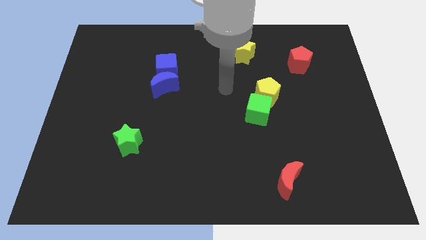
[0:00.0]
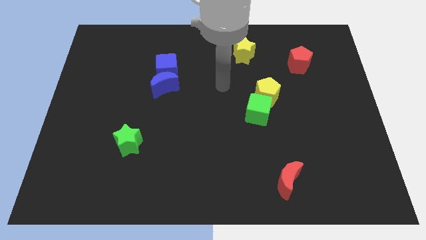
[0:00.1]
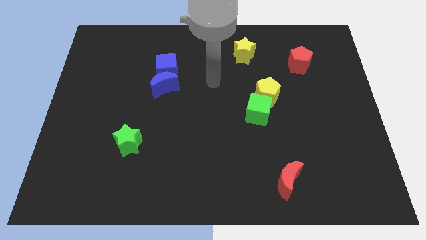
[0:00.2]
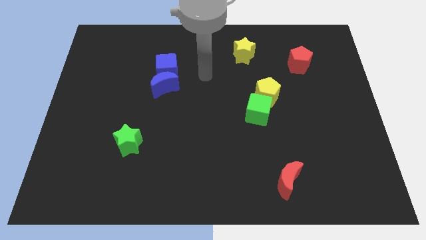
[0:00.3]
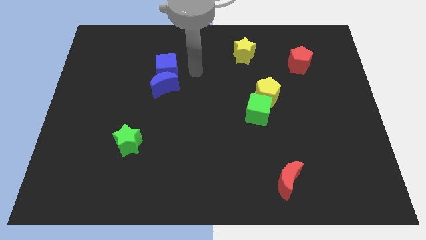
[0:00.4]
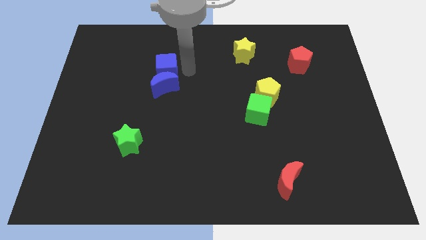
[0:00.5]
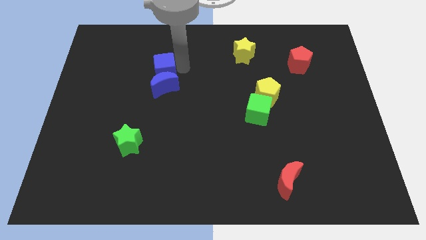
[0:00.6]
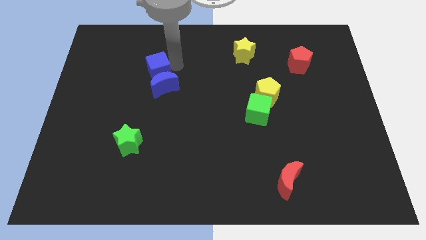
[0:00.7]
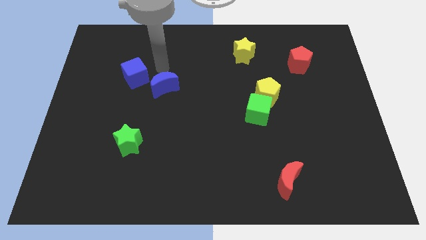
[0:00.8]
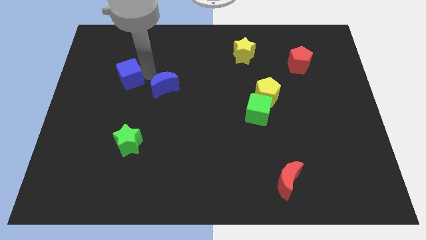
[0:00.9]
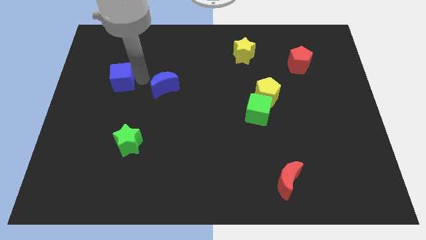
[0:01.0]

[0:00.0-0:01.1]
pull the blue moon apart from the blue cube

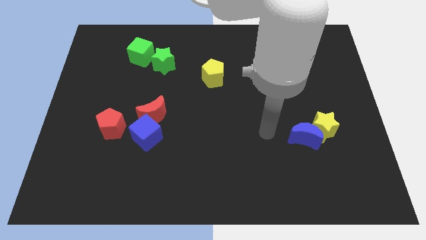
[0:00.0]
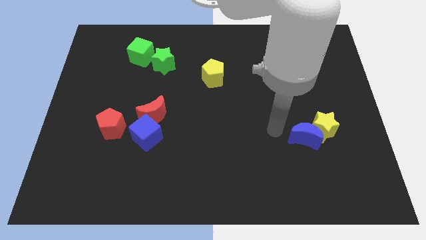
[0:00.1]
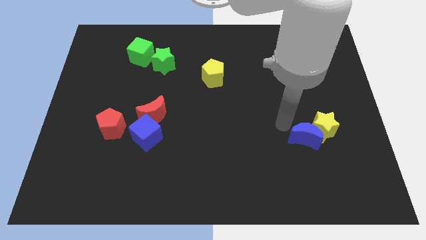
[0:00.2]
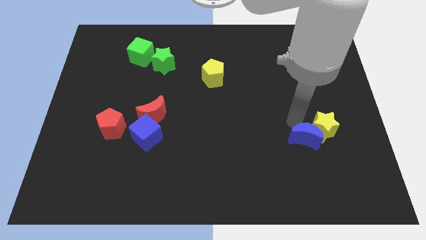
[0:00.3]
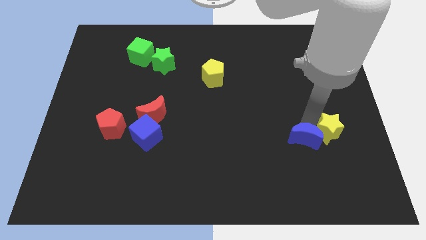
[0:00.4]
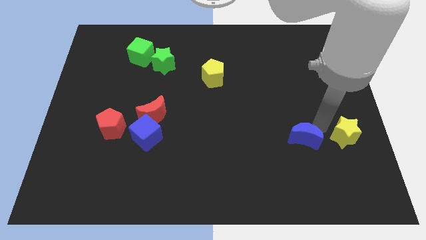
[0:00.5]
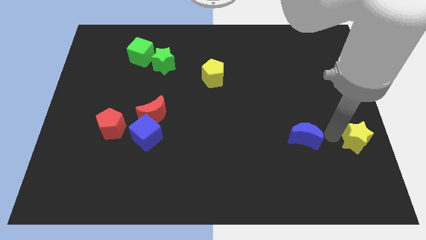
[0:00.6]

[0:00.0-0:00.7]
move the blue moon away from the yellow star

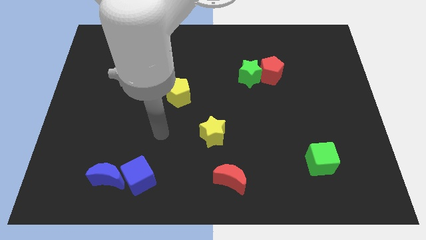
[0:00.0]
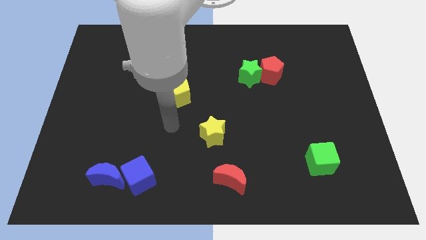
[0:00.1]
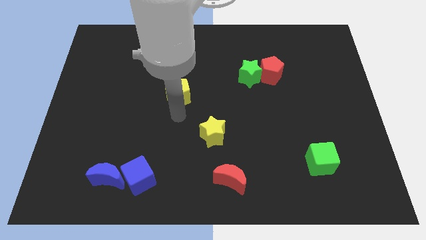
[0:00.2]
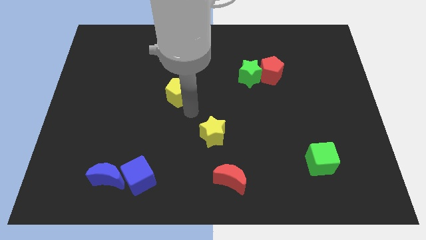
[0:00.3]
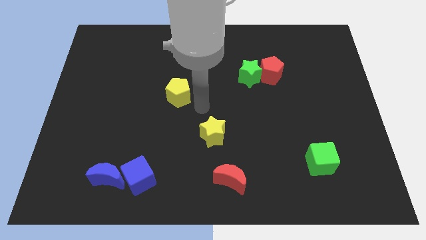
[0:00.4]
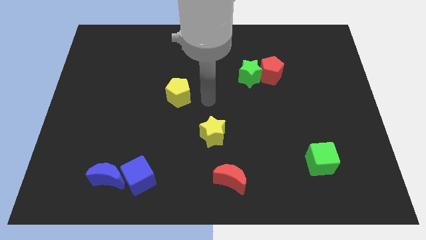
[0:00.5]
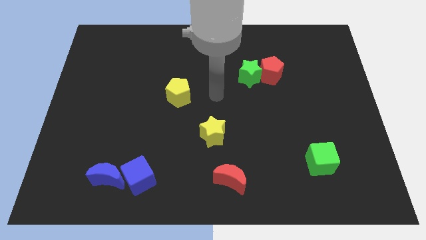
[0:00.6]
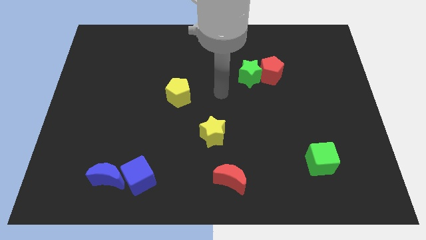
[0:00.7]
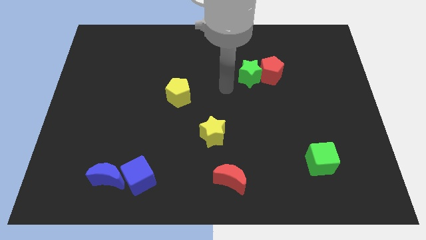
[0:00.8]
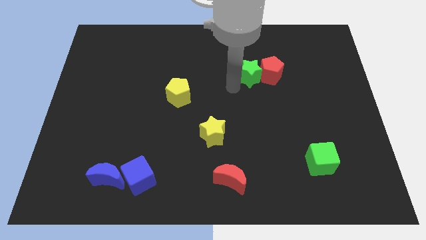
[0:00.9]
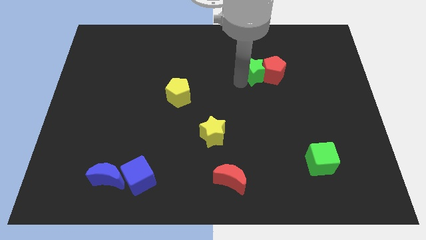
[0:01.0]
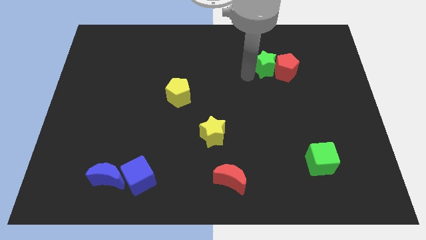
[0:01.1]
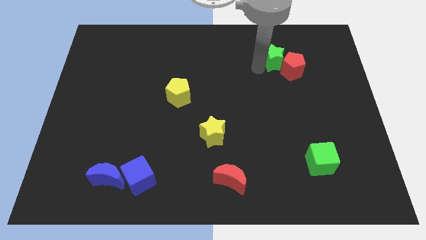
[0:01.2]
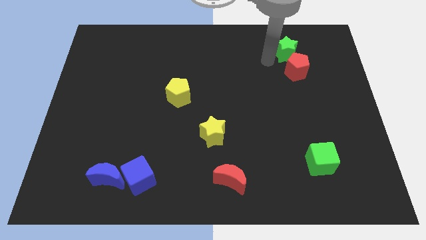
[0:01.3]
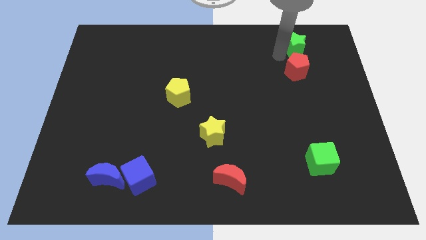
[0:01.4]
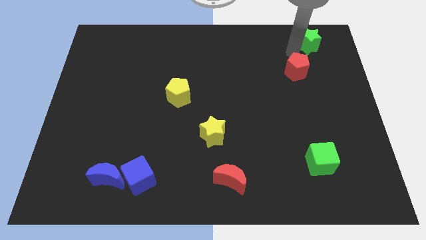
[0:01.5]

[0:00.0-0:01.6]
move the red pentagon away from the green star

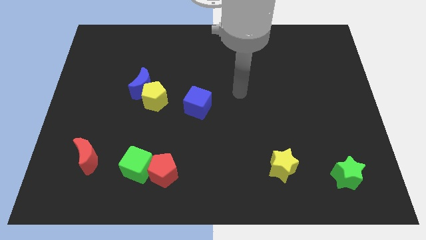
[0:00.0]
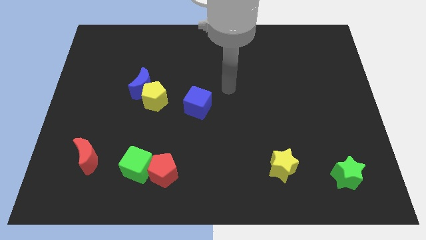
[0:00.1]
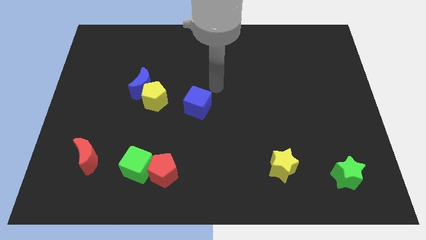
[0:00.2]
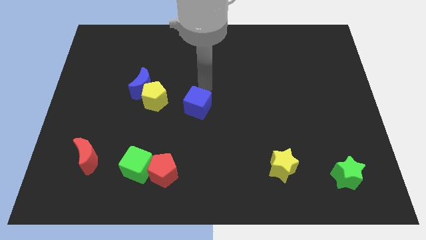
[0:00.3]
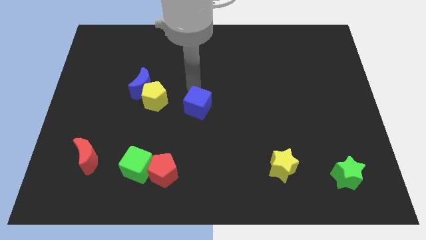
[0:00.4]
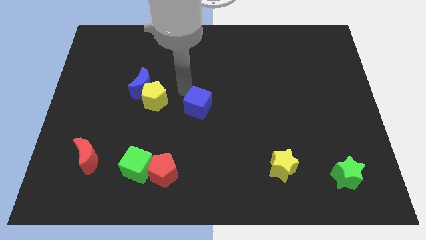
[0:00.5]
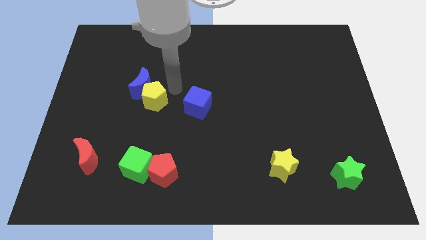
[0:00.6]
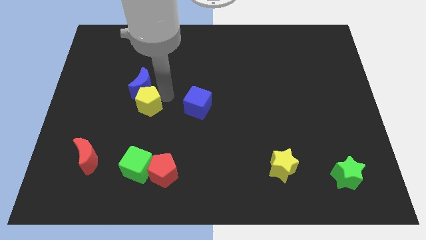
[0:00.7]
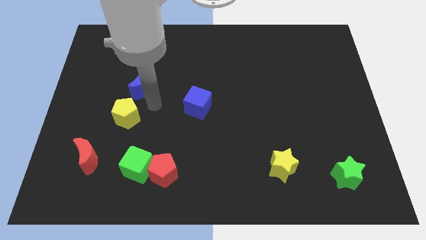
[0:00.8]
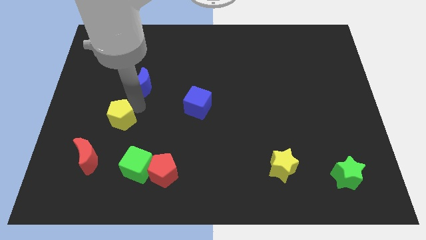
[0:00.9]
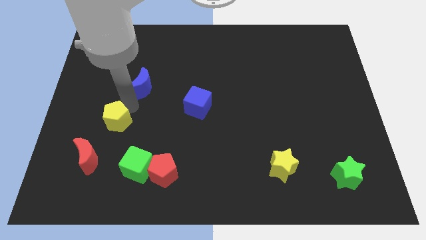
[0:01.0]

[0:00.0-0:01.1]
separate the blue moon from the yellow pentagon

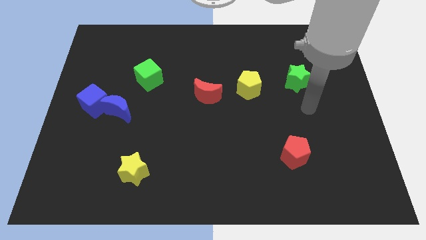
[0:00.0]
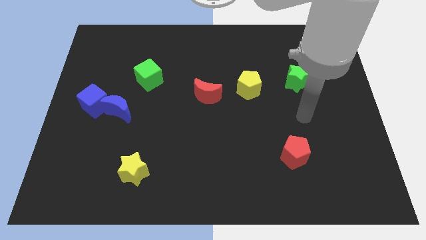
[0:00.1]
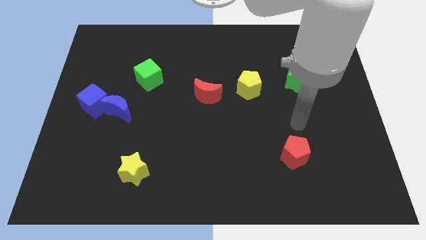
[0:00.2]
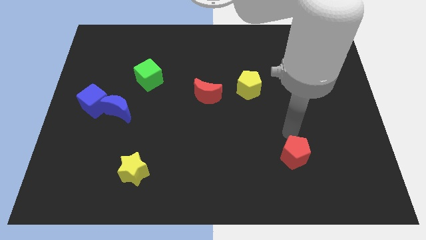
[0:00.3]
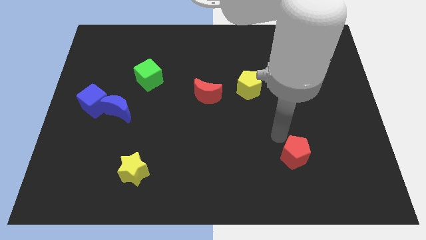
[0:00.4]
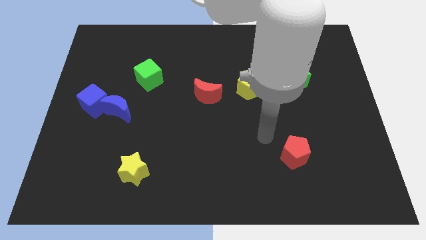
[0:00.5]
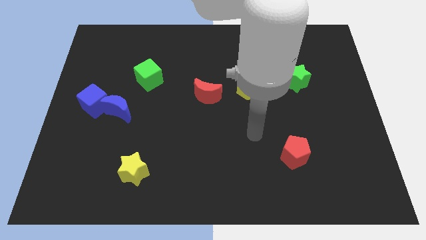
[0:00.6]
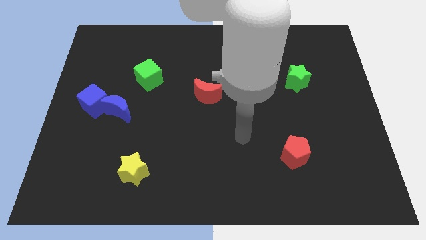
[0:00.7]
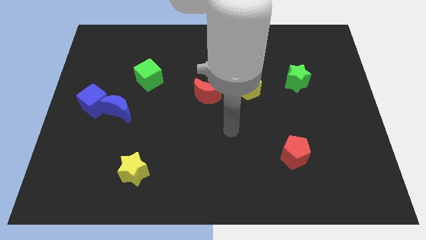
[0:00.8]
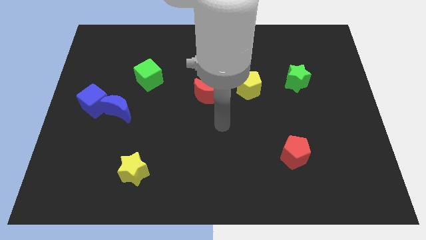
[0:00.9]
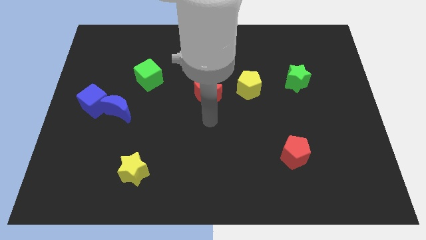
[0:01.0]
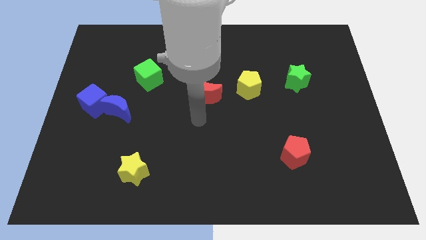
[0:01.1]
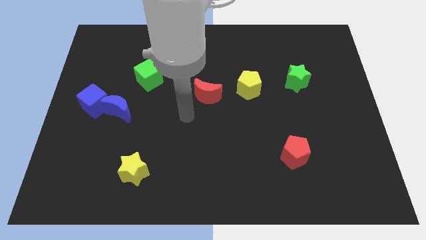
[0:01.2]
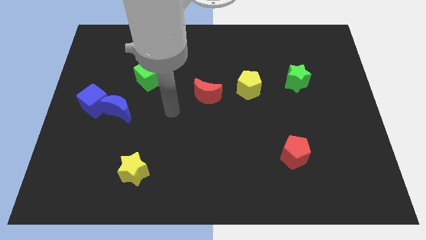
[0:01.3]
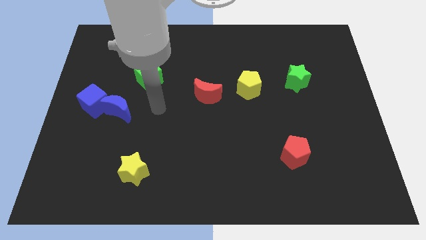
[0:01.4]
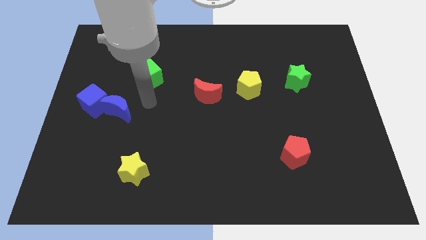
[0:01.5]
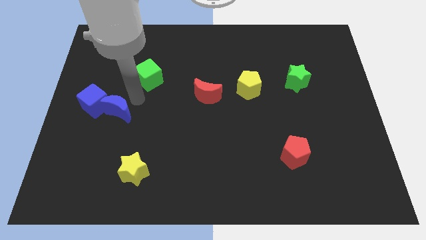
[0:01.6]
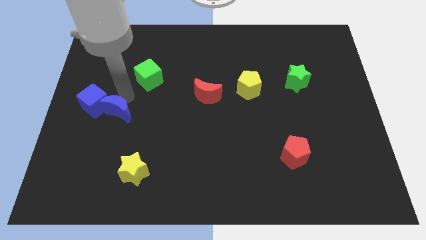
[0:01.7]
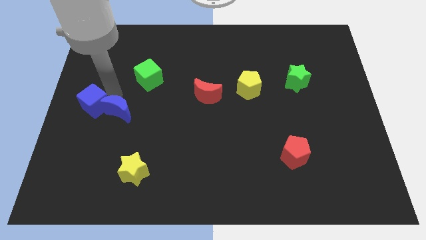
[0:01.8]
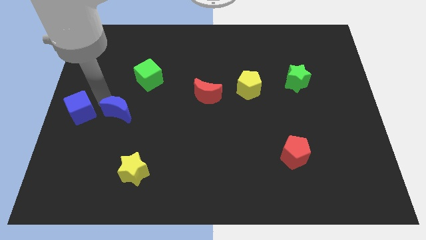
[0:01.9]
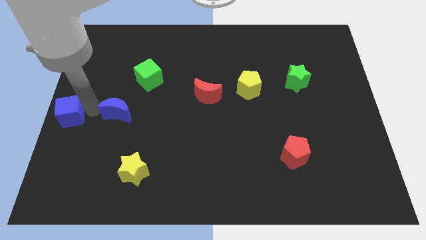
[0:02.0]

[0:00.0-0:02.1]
move the blue moon away from the blue cube

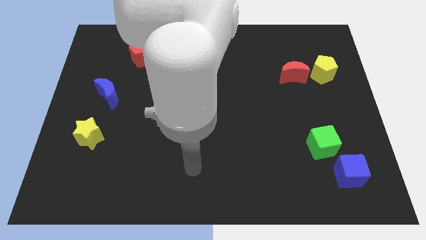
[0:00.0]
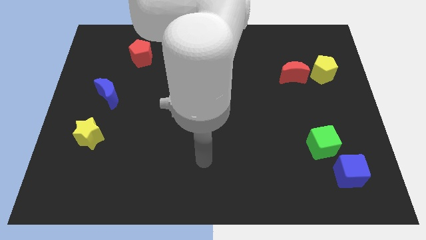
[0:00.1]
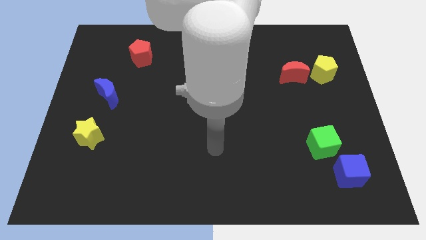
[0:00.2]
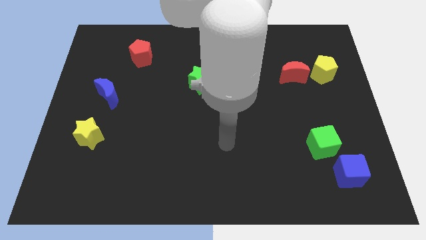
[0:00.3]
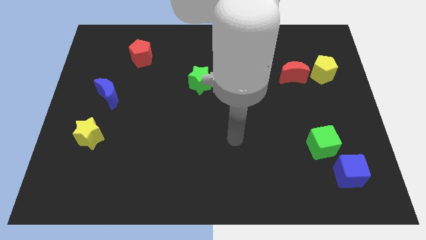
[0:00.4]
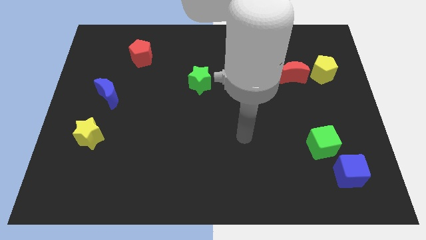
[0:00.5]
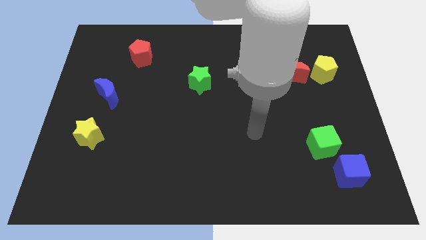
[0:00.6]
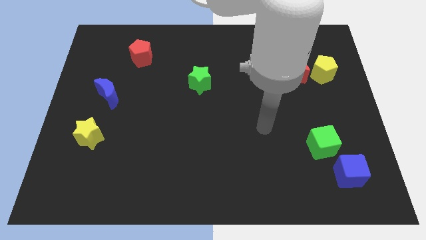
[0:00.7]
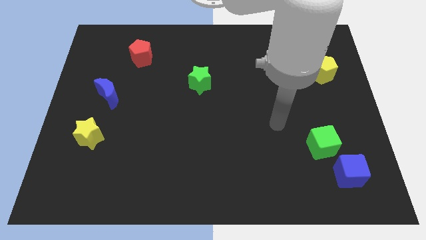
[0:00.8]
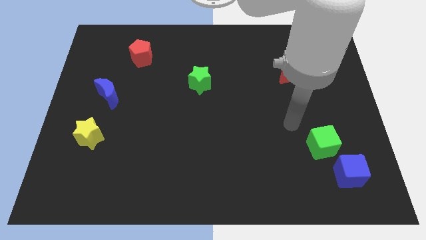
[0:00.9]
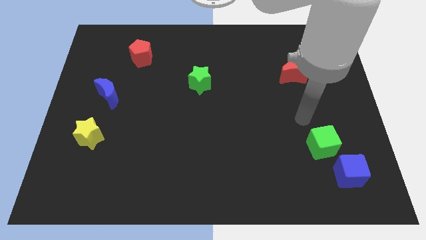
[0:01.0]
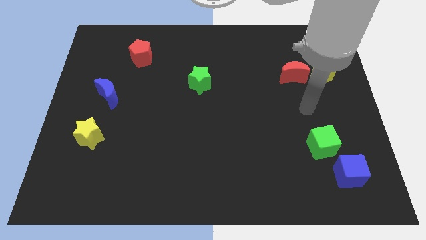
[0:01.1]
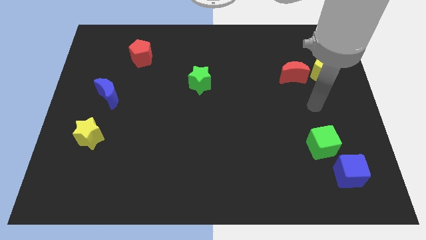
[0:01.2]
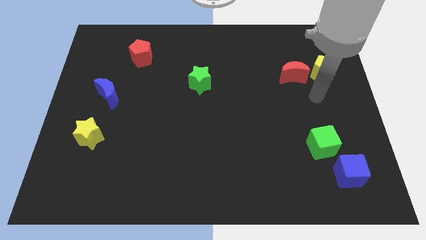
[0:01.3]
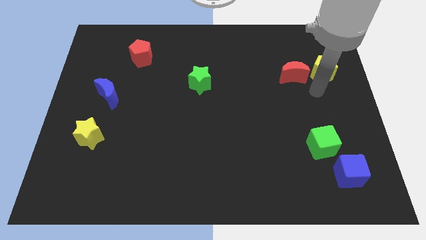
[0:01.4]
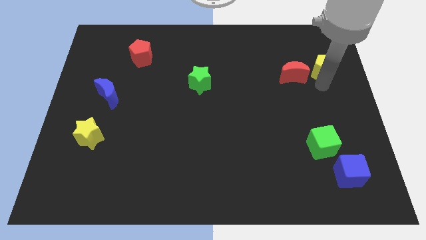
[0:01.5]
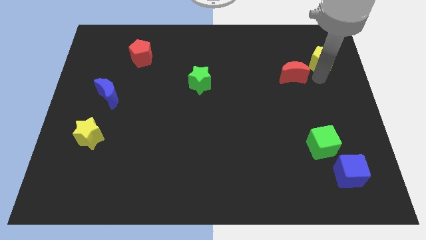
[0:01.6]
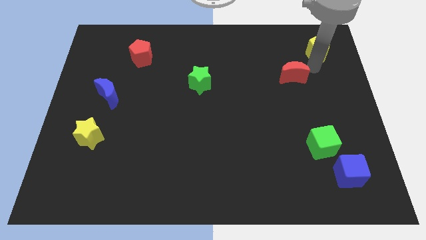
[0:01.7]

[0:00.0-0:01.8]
pull the red moon apart from the yellow pentagon

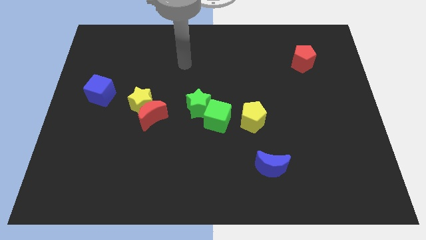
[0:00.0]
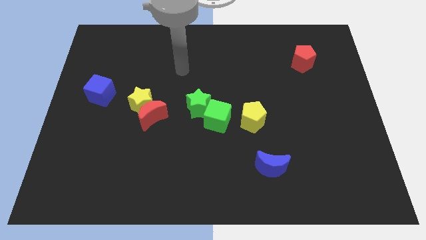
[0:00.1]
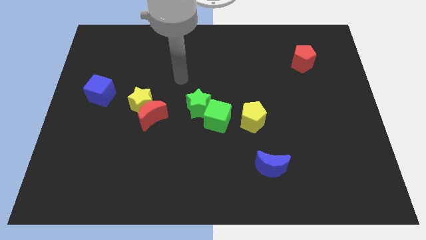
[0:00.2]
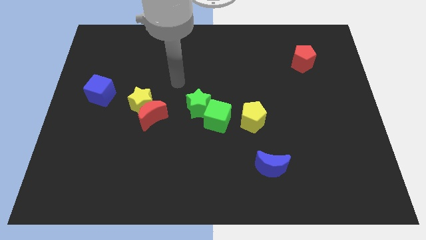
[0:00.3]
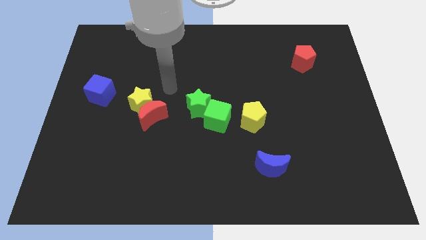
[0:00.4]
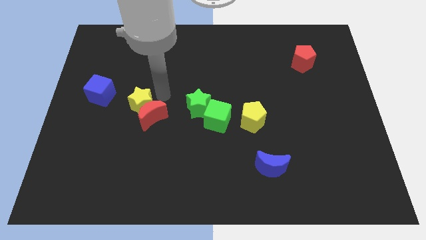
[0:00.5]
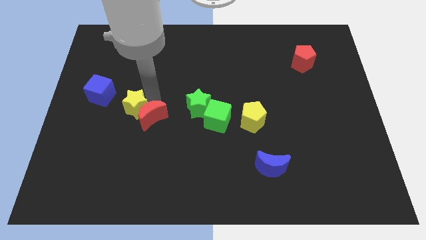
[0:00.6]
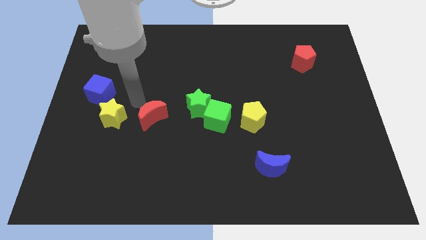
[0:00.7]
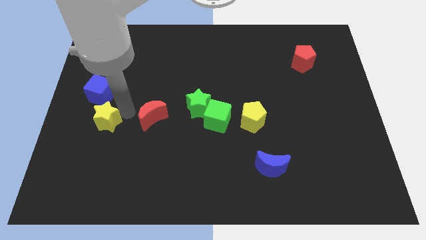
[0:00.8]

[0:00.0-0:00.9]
separate the red moon from the yellow star
